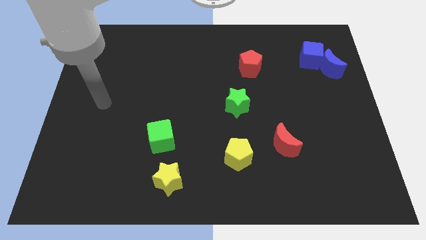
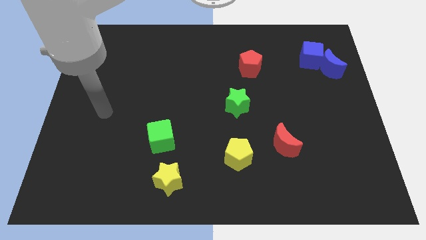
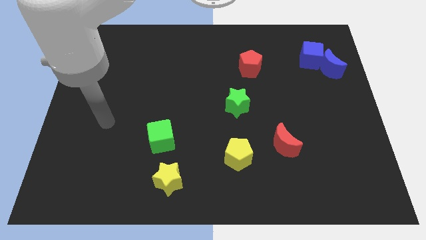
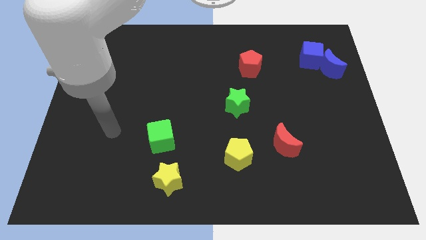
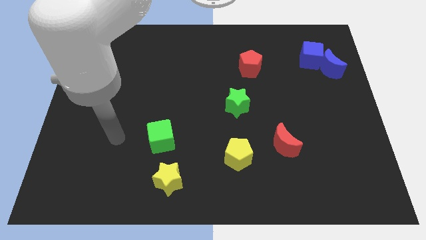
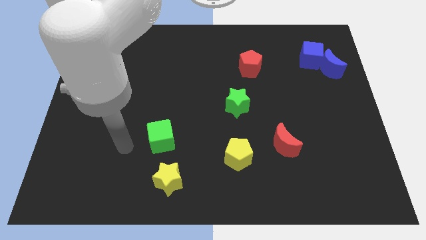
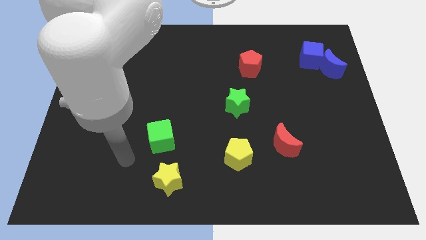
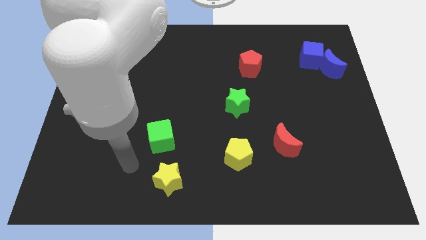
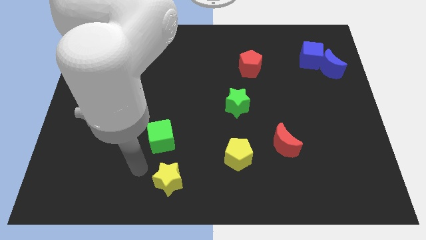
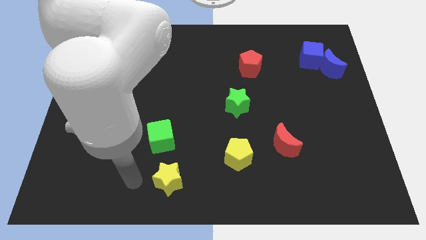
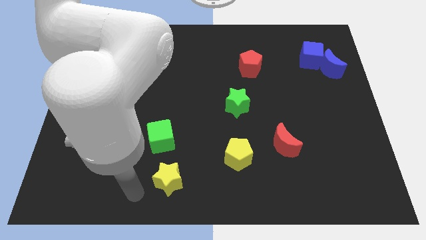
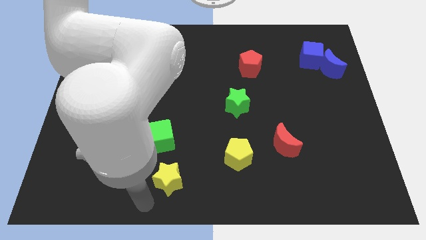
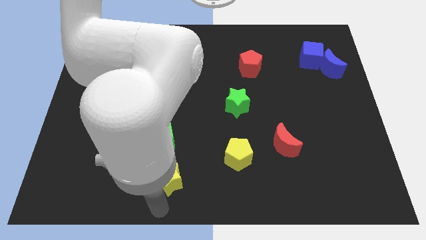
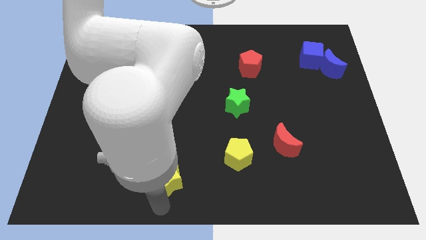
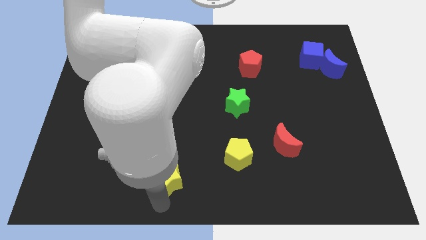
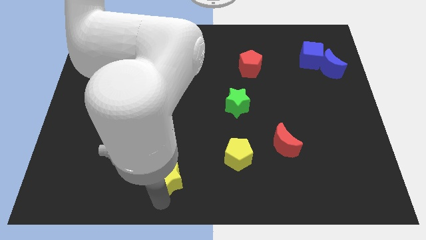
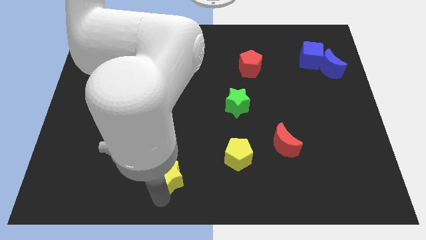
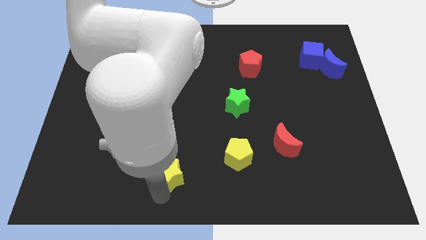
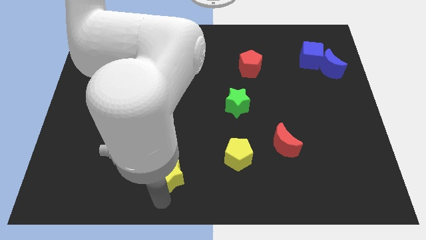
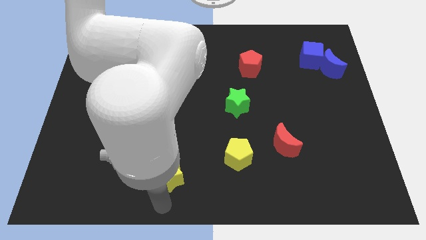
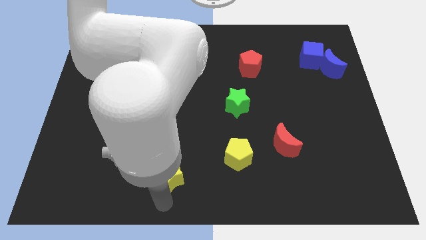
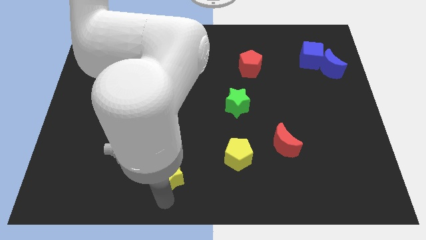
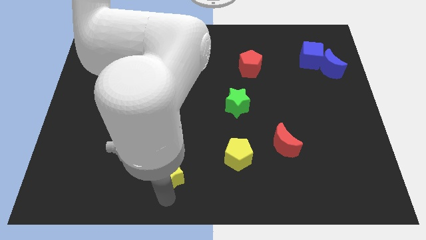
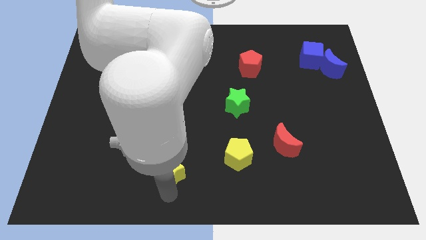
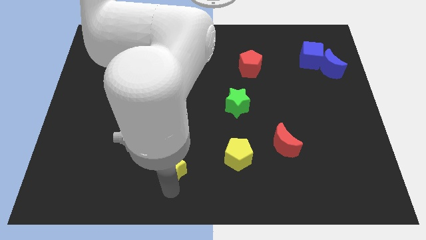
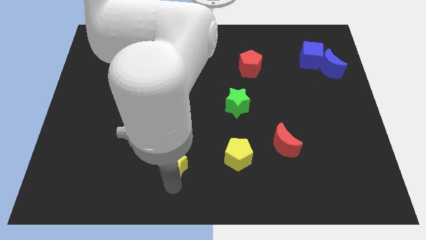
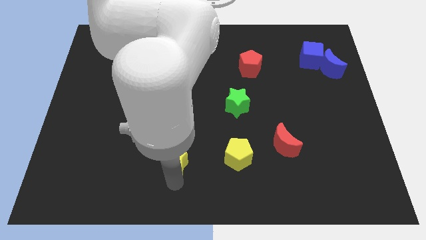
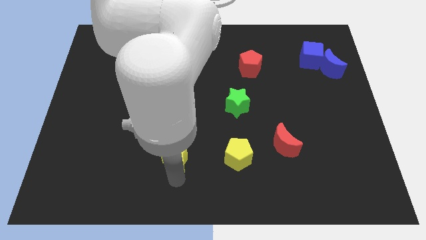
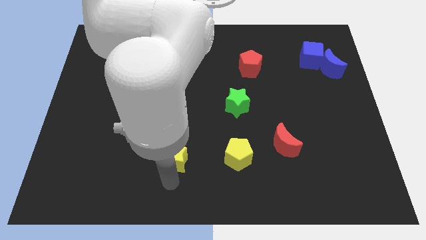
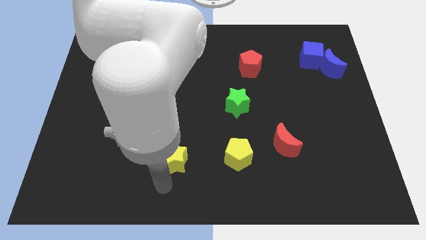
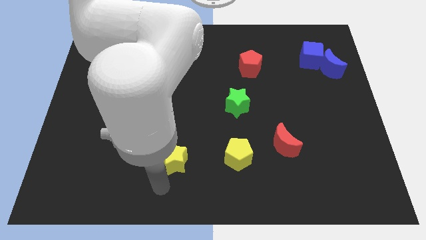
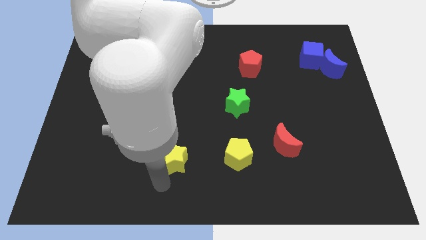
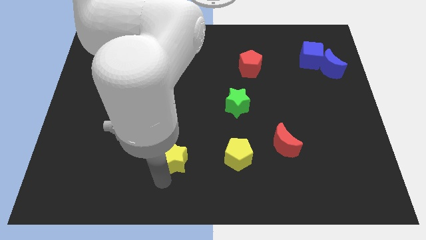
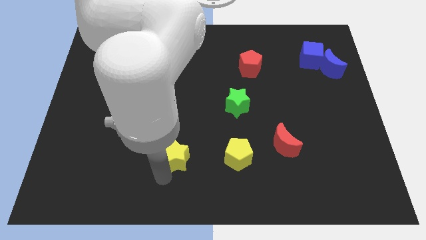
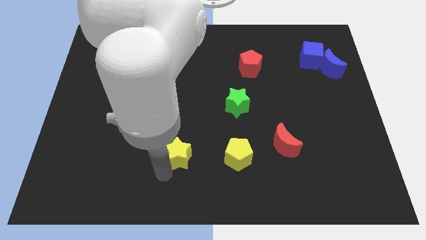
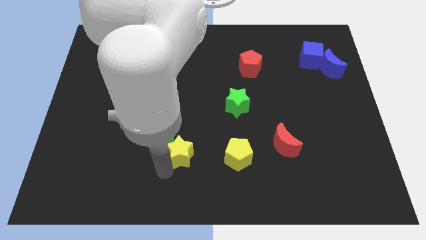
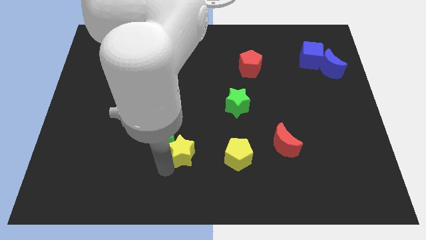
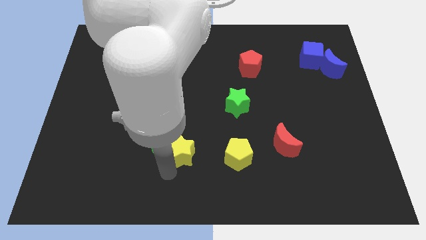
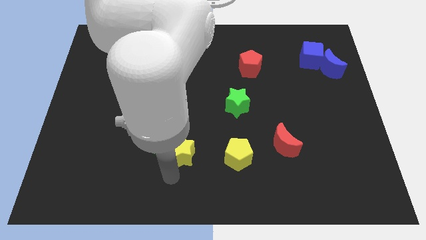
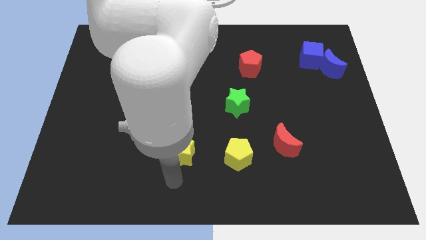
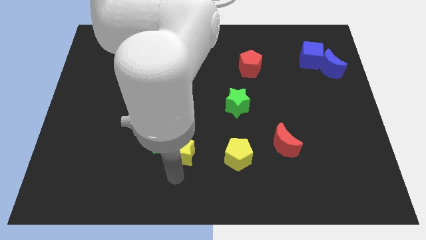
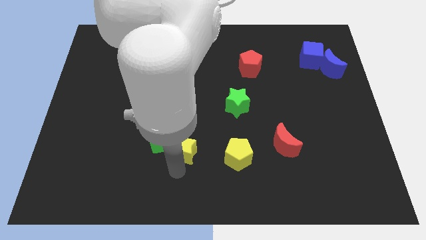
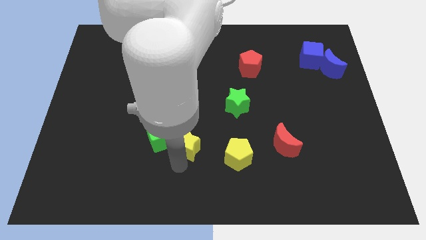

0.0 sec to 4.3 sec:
slightly move the yellow star upwards

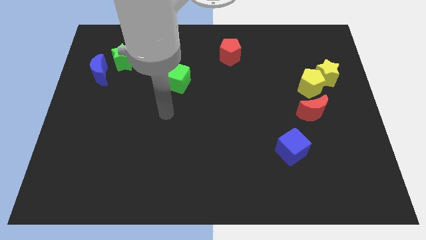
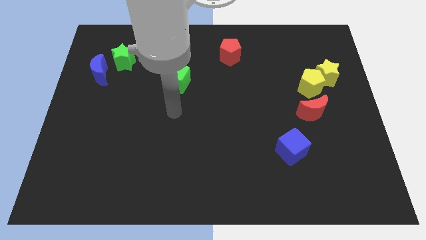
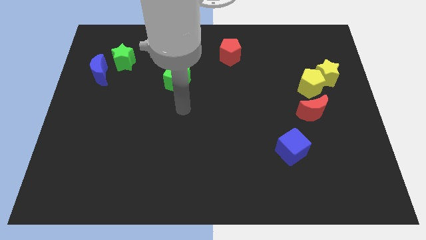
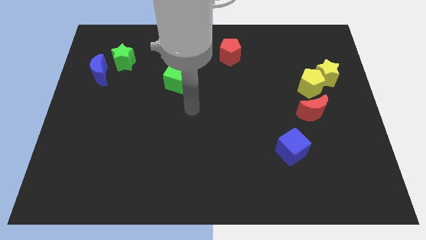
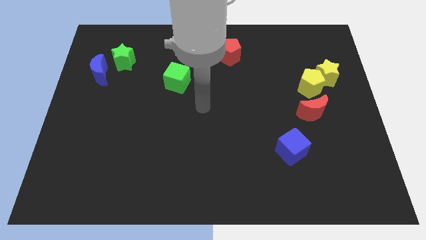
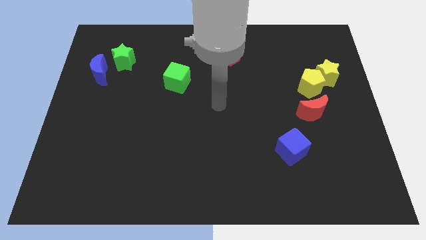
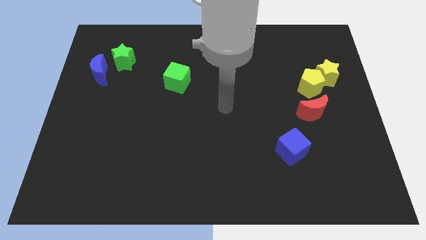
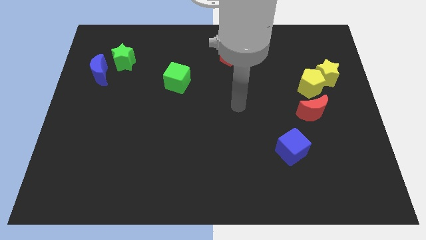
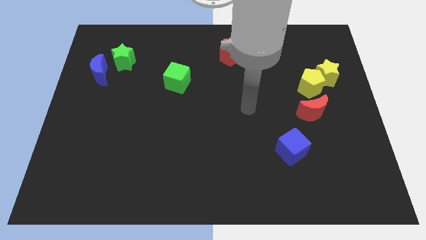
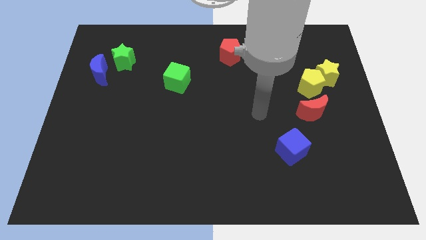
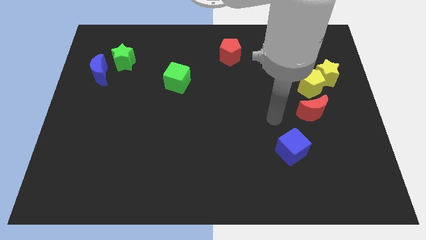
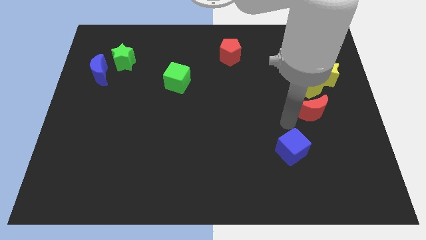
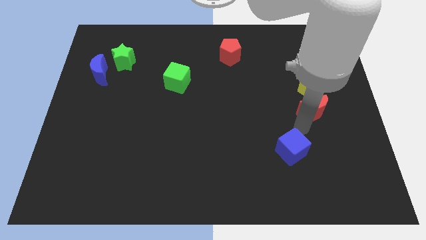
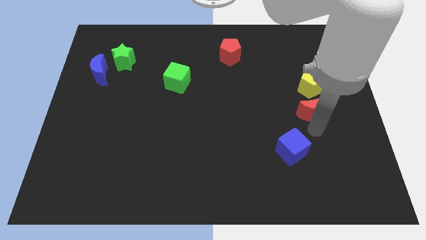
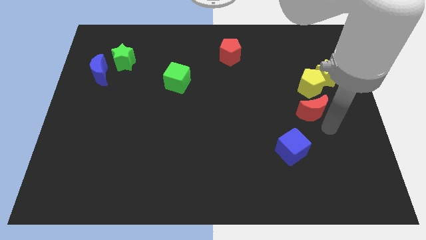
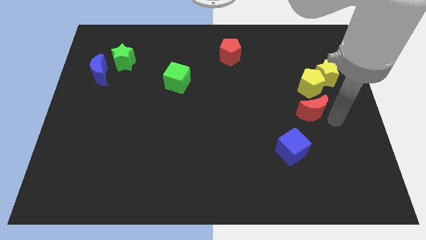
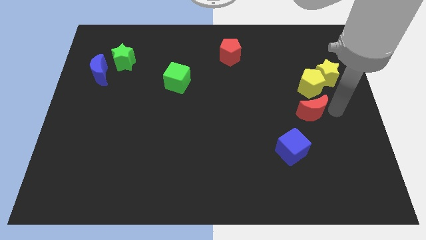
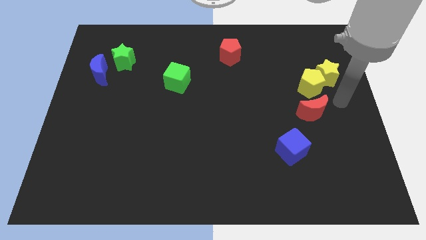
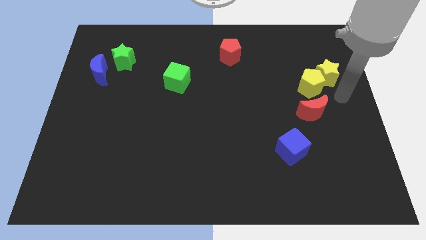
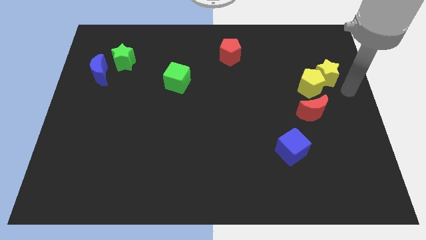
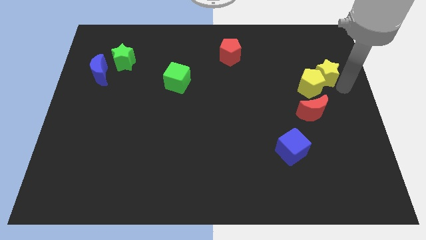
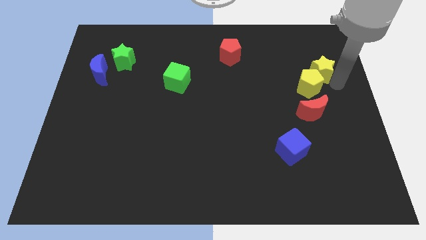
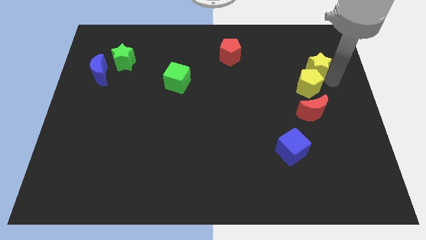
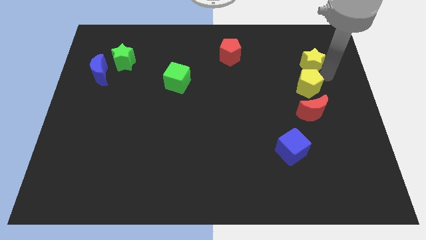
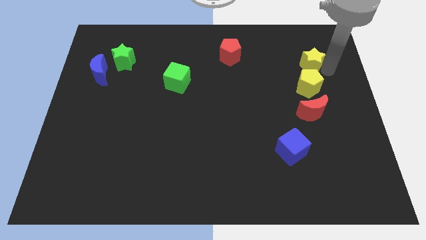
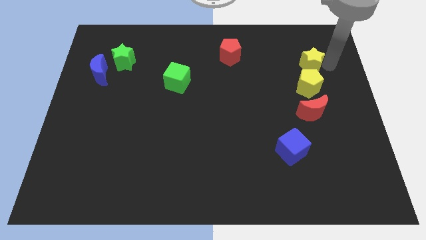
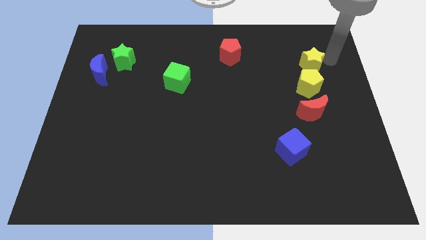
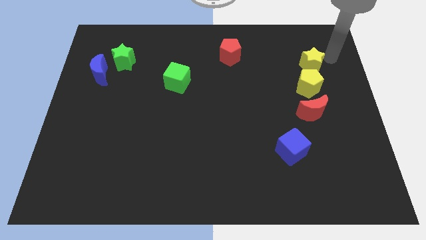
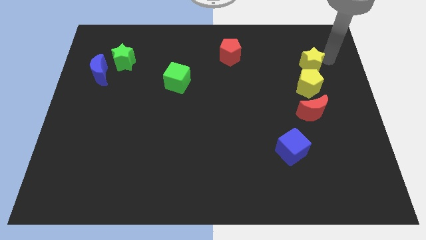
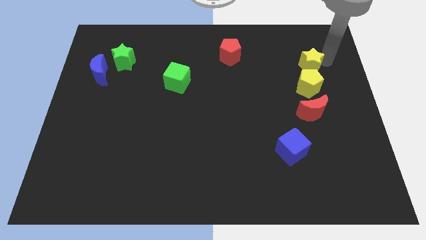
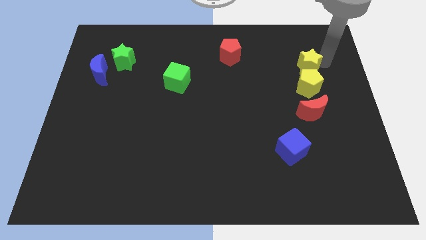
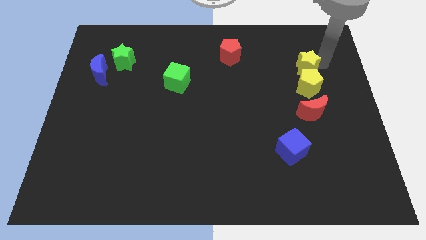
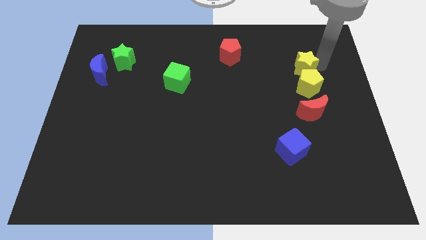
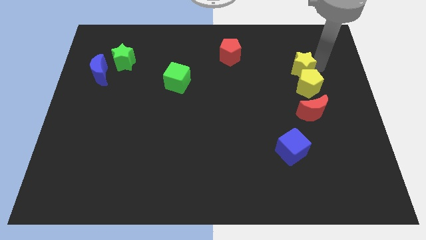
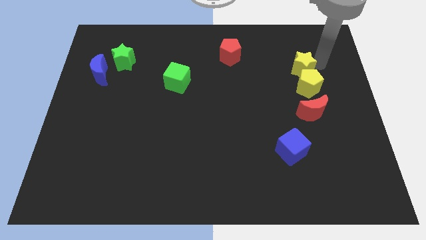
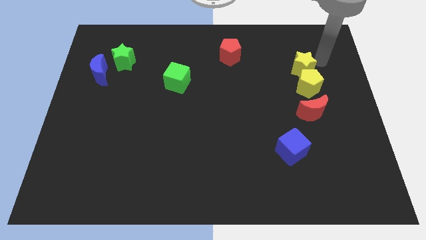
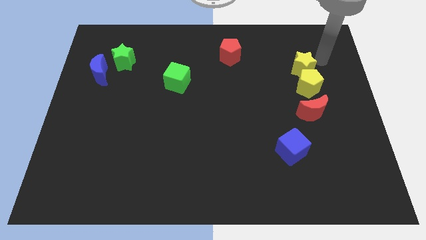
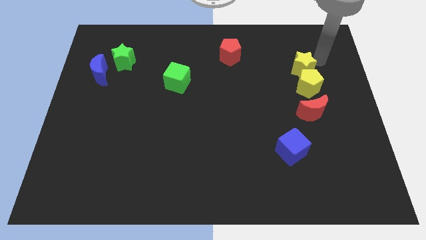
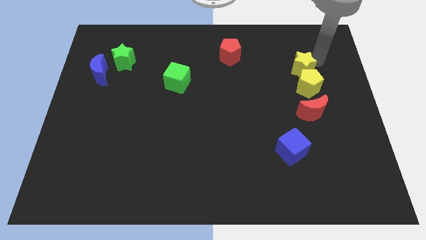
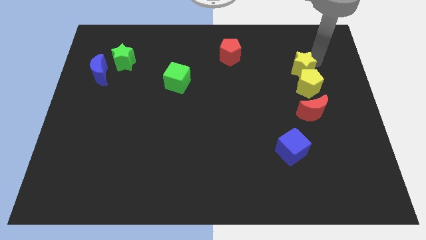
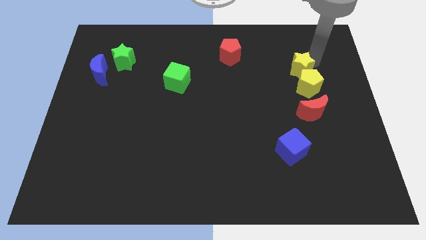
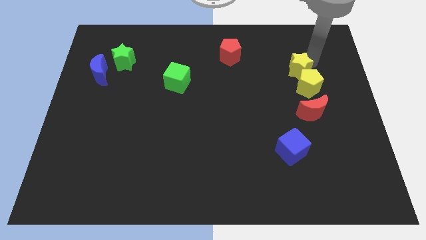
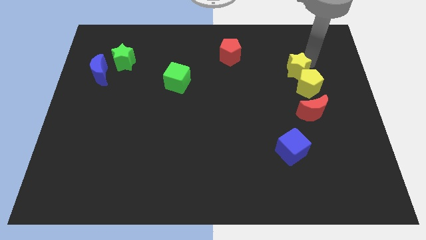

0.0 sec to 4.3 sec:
push the yellow star left slightly
